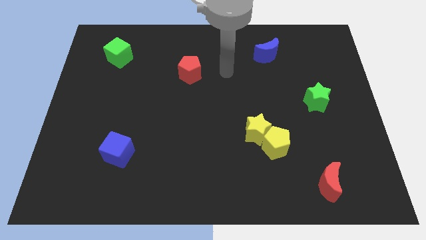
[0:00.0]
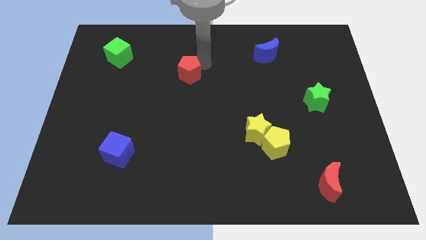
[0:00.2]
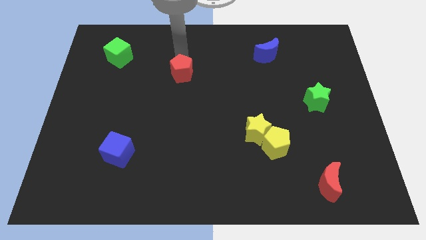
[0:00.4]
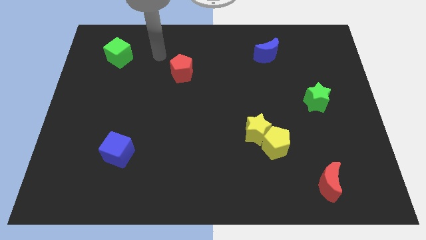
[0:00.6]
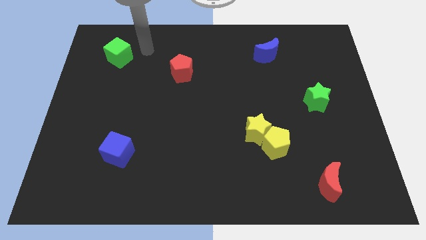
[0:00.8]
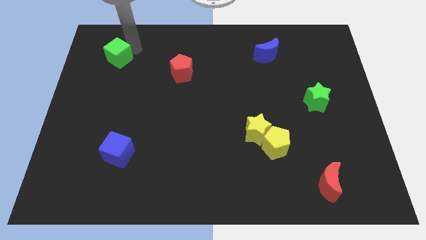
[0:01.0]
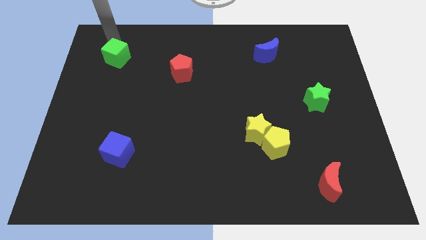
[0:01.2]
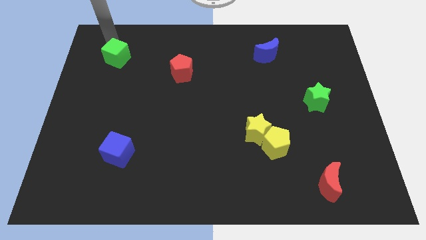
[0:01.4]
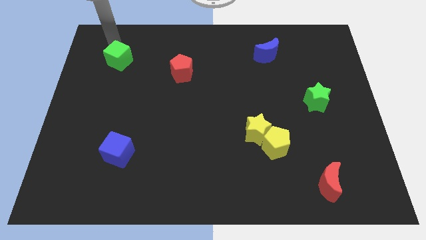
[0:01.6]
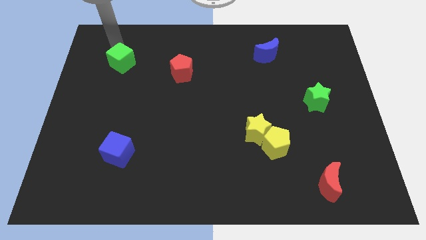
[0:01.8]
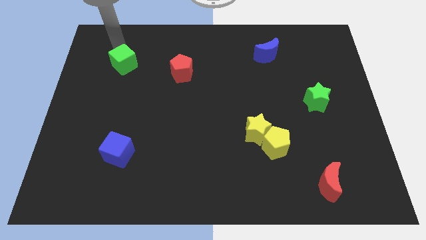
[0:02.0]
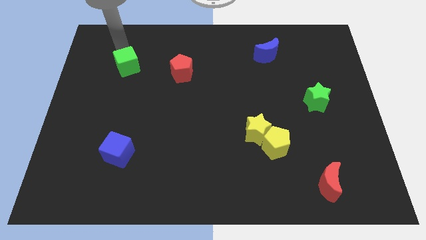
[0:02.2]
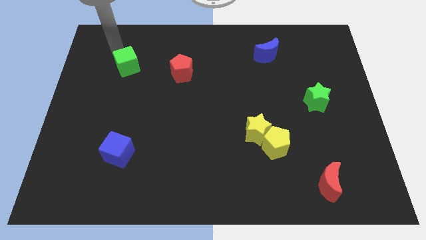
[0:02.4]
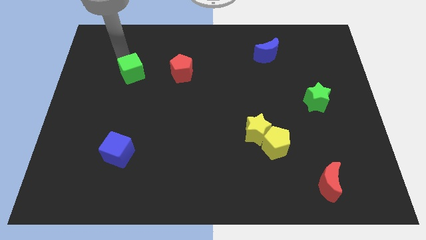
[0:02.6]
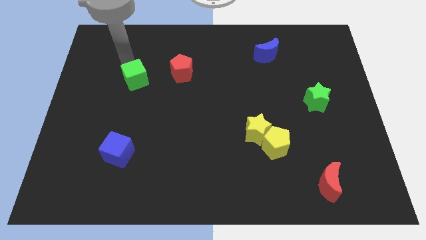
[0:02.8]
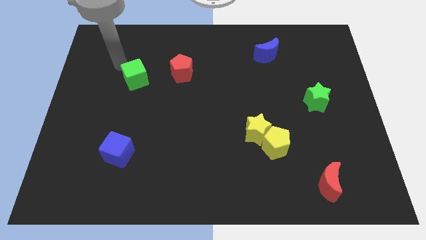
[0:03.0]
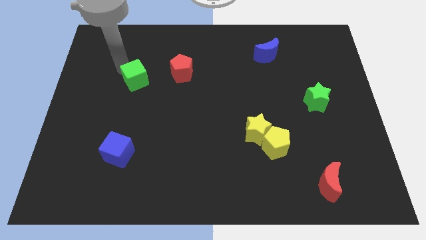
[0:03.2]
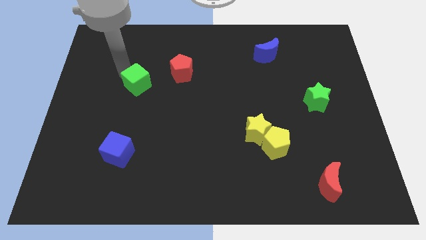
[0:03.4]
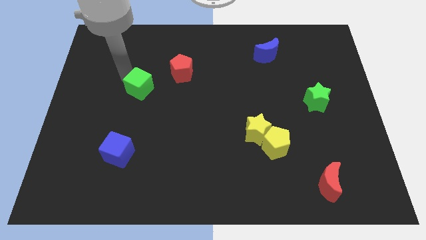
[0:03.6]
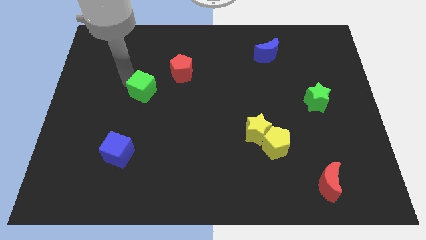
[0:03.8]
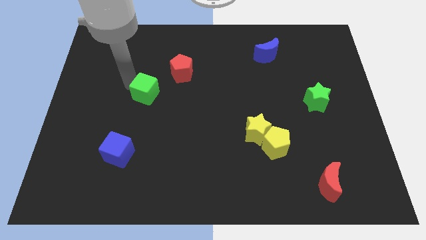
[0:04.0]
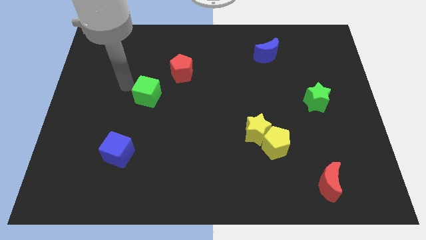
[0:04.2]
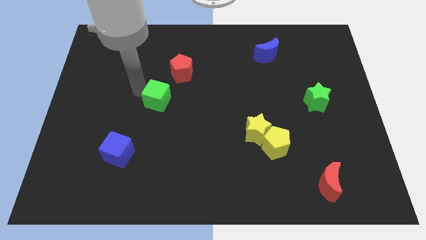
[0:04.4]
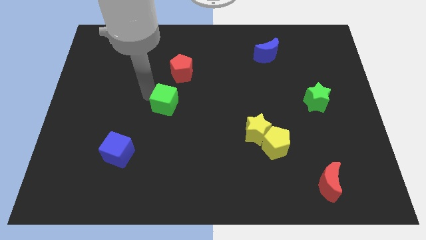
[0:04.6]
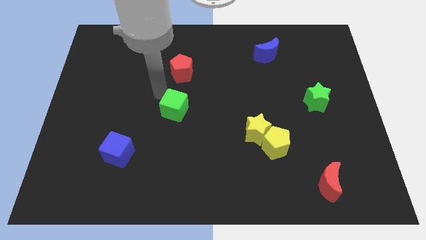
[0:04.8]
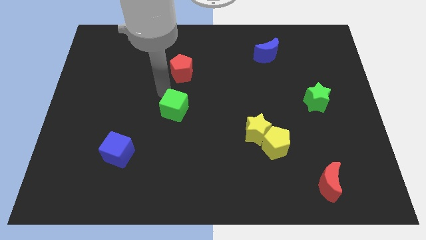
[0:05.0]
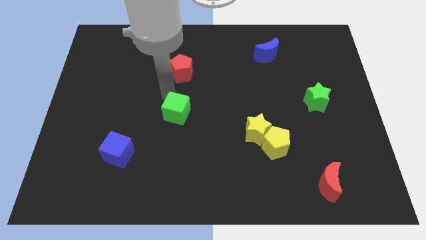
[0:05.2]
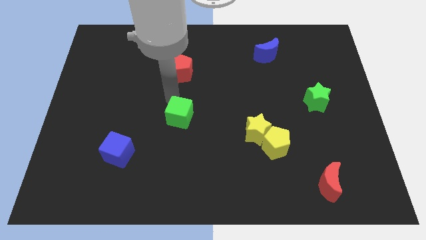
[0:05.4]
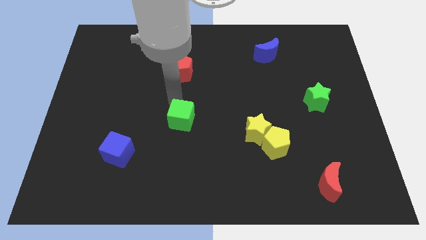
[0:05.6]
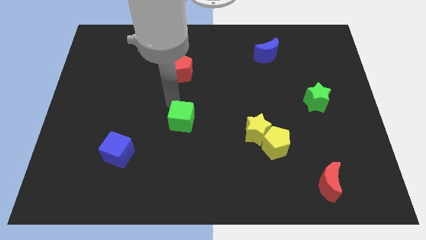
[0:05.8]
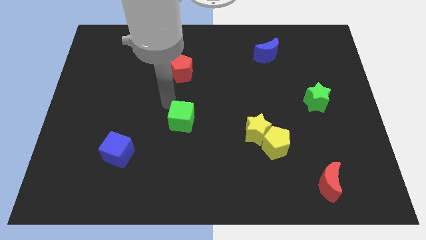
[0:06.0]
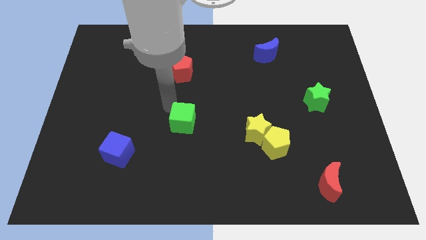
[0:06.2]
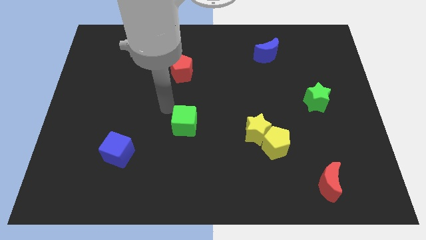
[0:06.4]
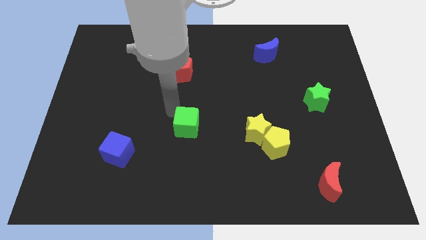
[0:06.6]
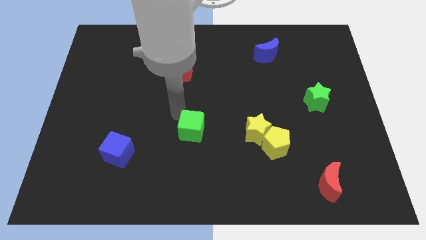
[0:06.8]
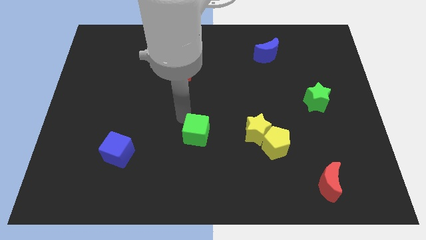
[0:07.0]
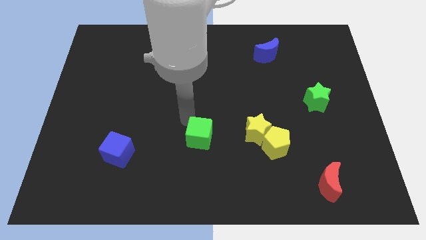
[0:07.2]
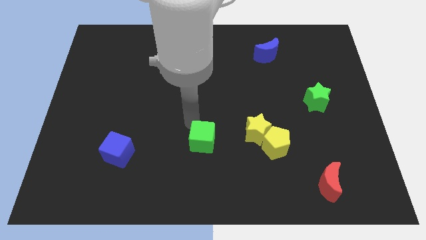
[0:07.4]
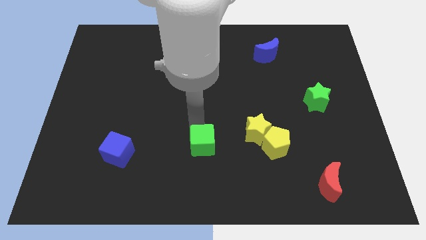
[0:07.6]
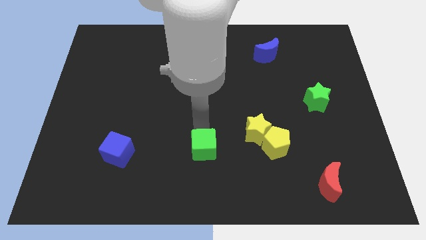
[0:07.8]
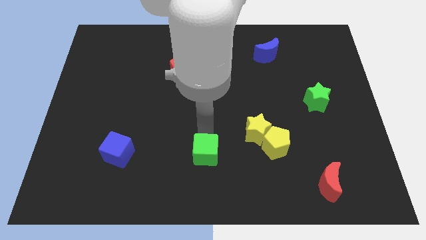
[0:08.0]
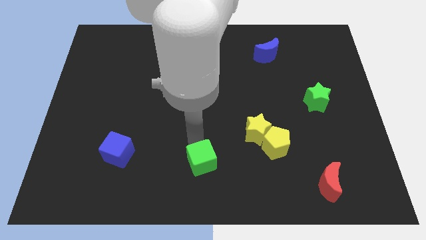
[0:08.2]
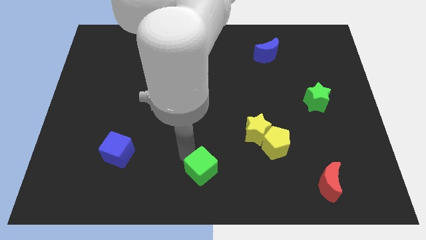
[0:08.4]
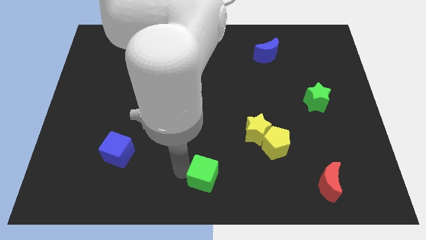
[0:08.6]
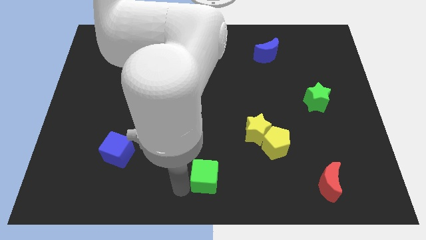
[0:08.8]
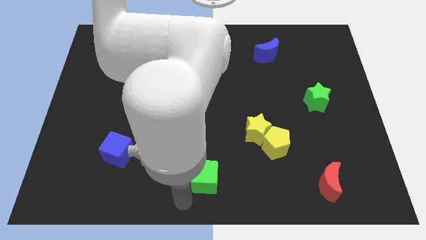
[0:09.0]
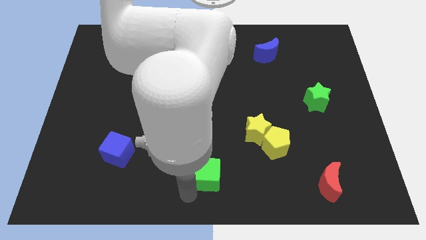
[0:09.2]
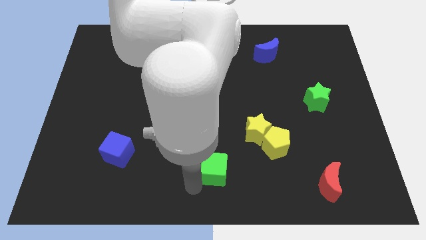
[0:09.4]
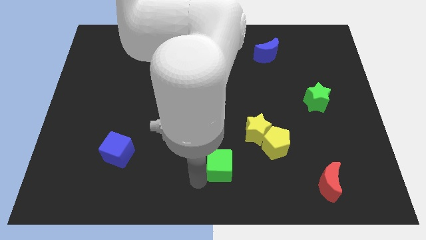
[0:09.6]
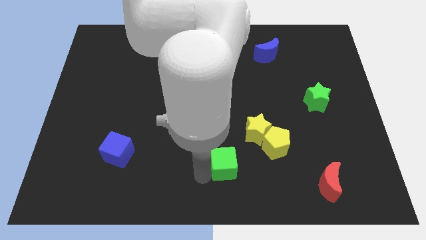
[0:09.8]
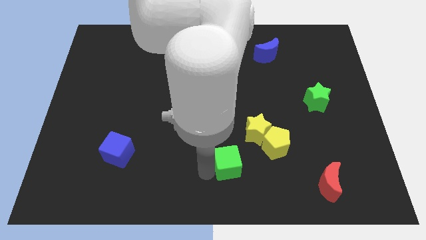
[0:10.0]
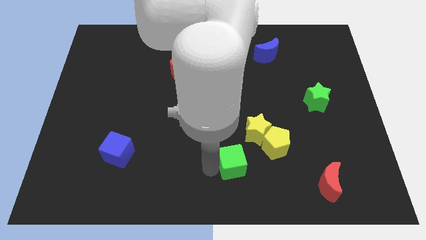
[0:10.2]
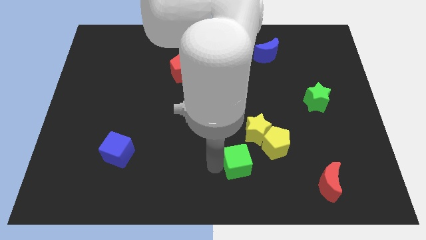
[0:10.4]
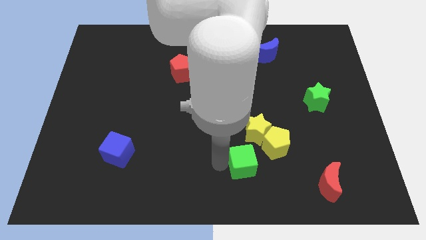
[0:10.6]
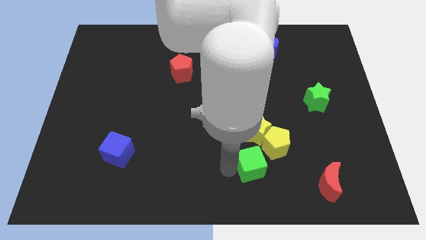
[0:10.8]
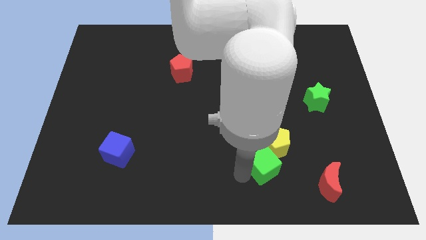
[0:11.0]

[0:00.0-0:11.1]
push the green cube close to the yellow pentagon

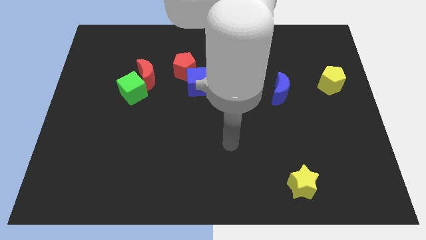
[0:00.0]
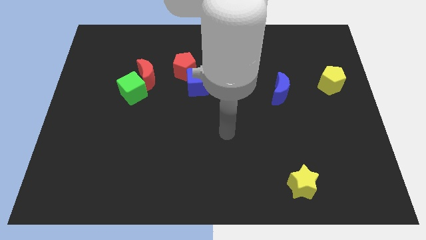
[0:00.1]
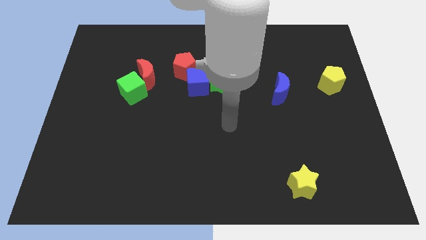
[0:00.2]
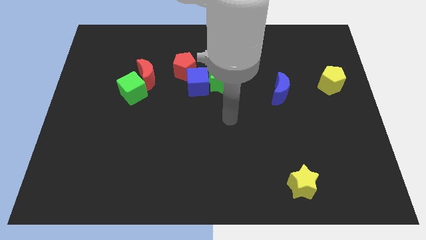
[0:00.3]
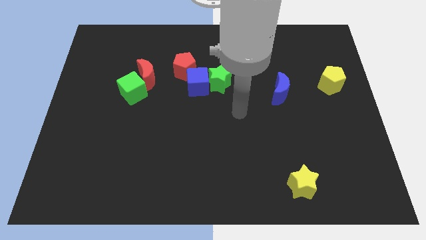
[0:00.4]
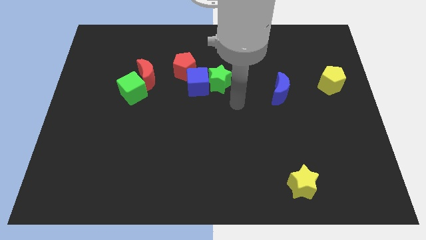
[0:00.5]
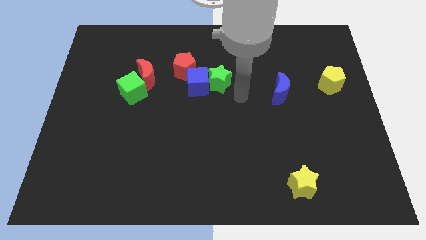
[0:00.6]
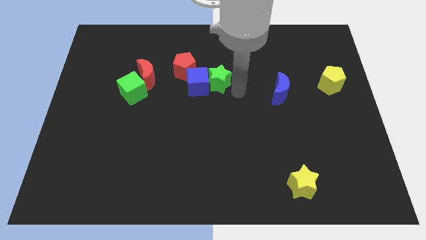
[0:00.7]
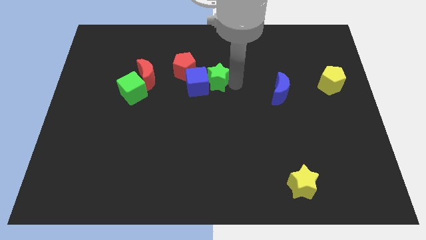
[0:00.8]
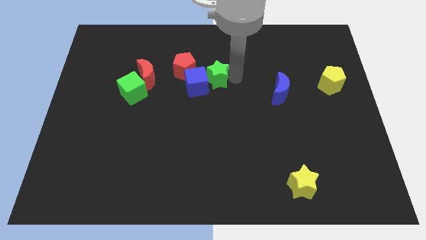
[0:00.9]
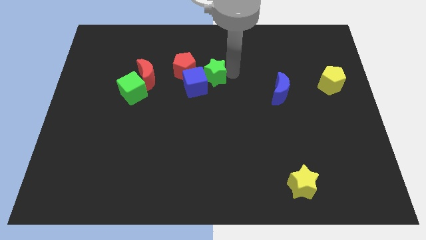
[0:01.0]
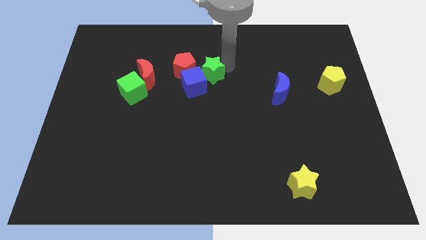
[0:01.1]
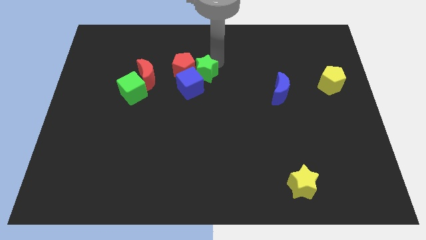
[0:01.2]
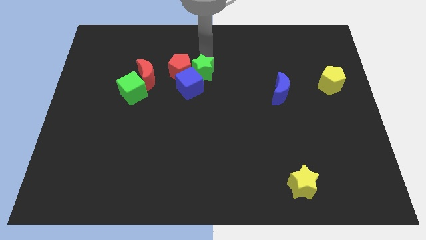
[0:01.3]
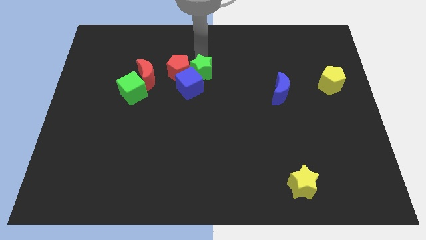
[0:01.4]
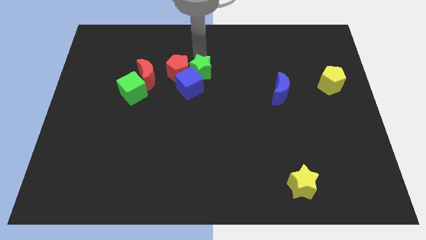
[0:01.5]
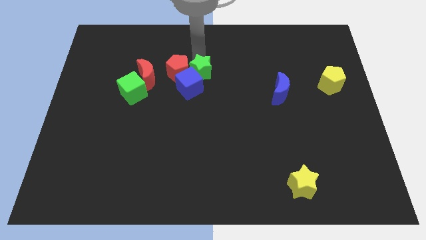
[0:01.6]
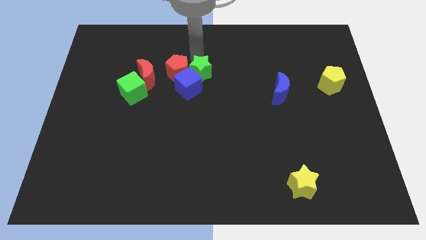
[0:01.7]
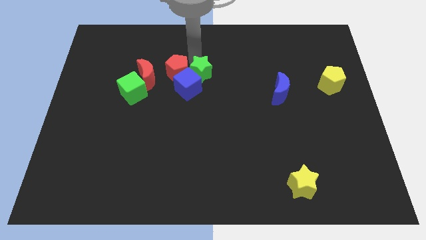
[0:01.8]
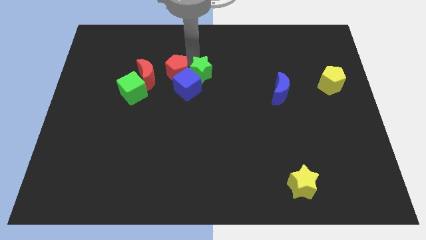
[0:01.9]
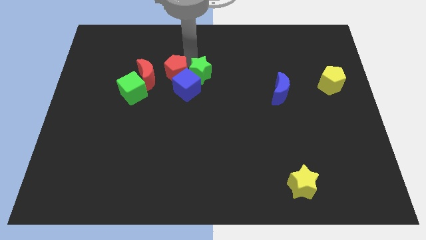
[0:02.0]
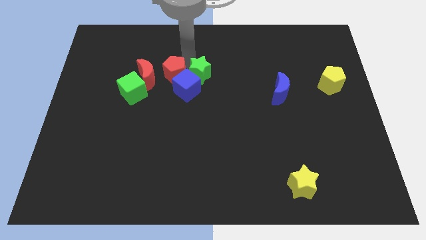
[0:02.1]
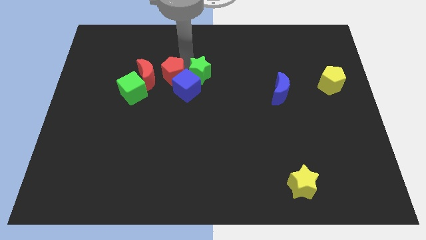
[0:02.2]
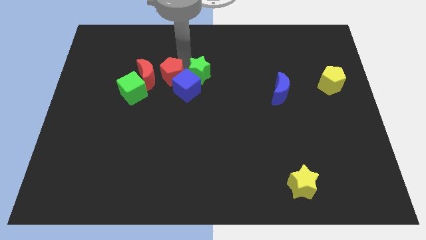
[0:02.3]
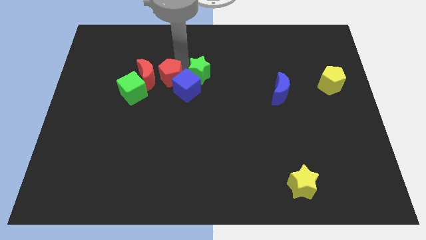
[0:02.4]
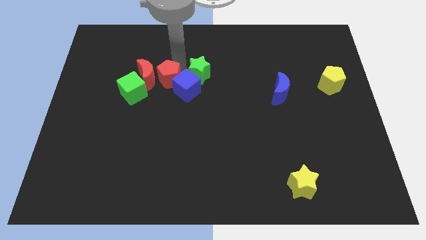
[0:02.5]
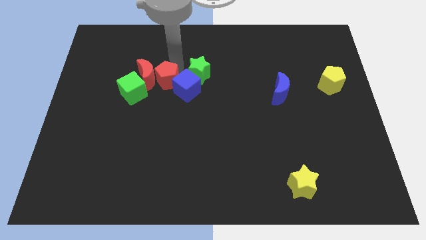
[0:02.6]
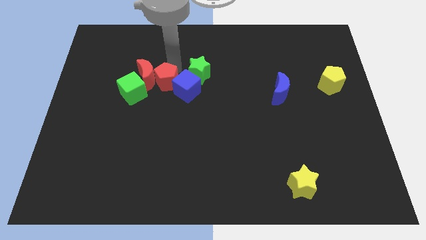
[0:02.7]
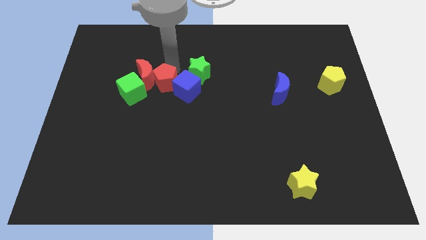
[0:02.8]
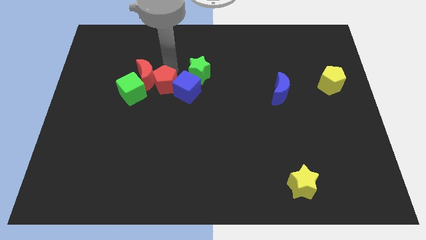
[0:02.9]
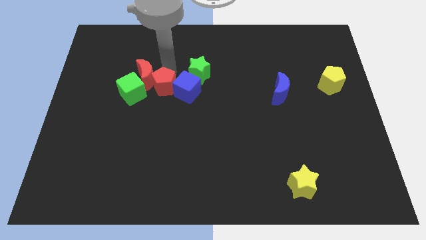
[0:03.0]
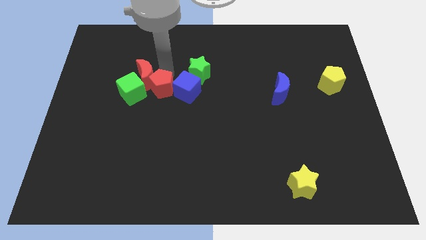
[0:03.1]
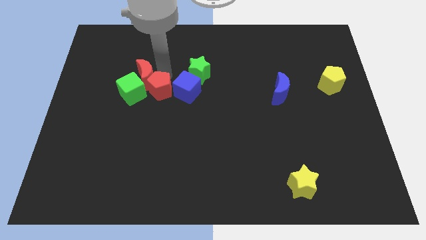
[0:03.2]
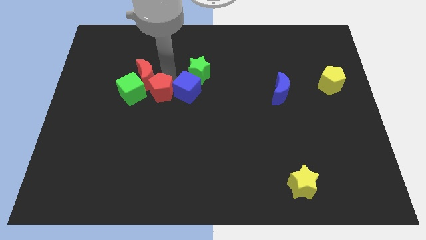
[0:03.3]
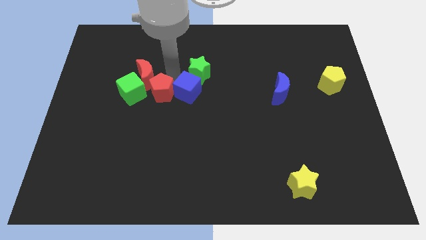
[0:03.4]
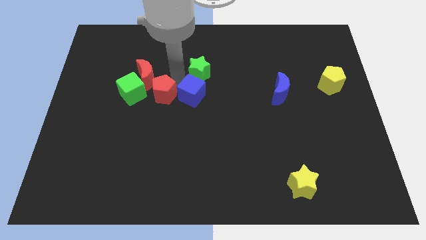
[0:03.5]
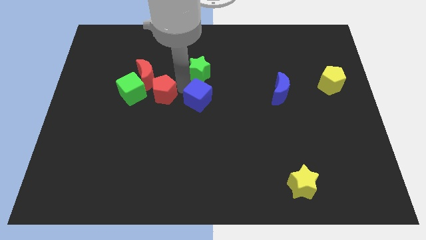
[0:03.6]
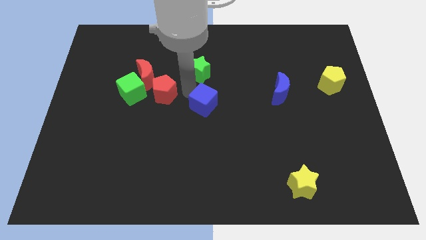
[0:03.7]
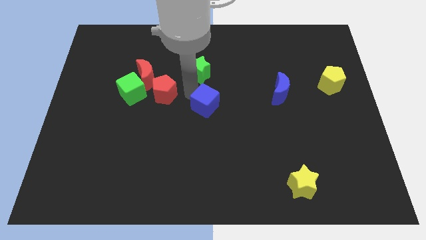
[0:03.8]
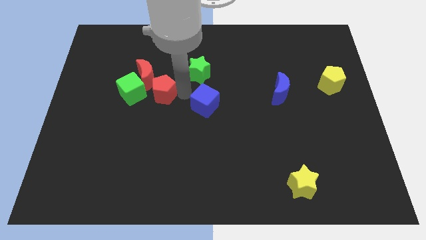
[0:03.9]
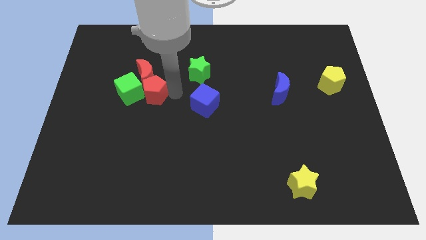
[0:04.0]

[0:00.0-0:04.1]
put the red pentagon close to the green cube
